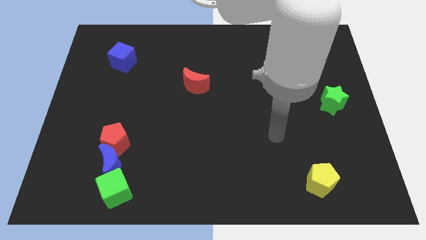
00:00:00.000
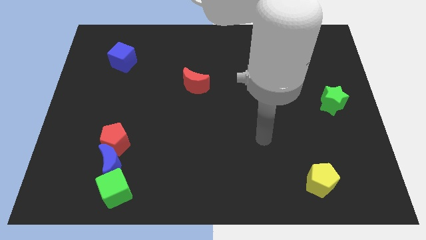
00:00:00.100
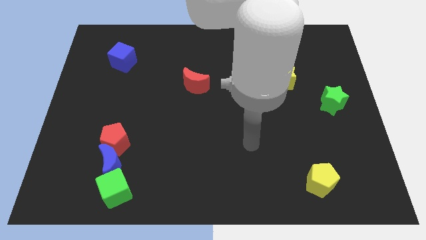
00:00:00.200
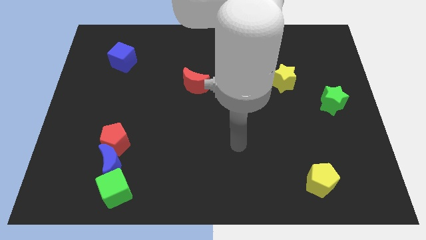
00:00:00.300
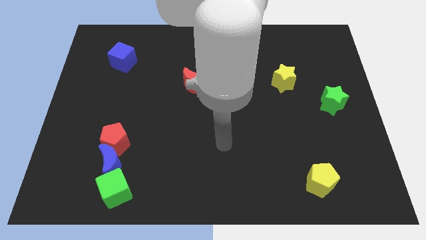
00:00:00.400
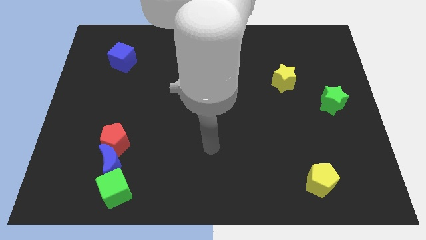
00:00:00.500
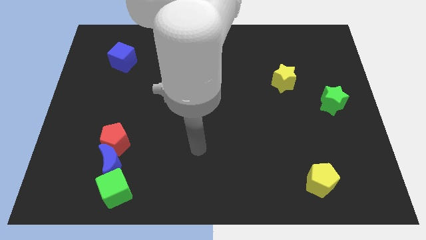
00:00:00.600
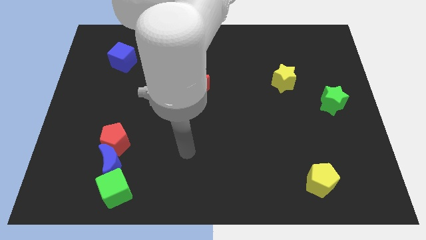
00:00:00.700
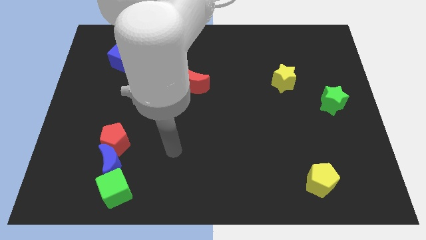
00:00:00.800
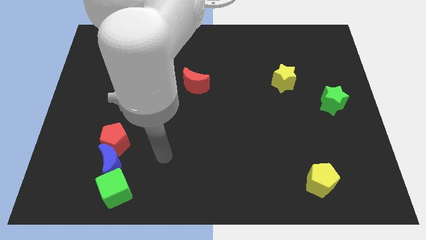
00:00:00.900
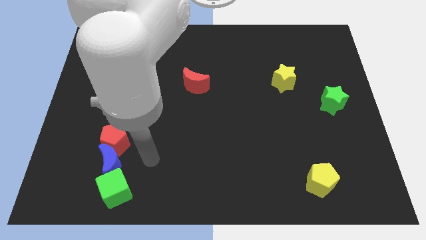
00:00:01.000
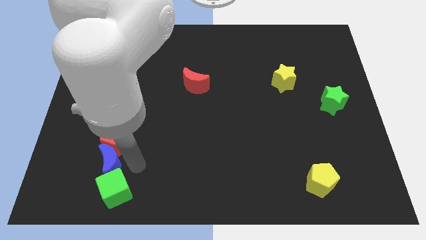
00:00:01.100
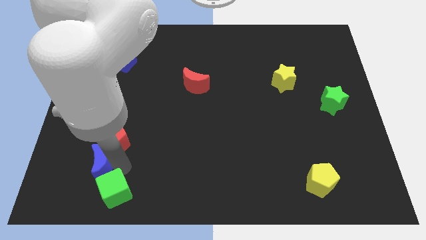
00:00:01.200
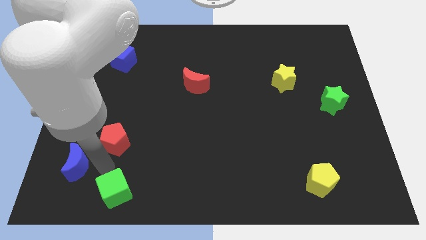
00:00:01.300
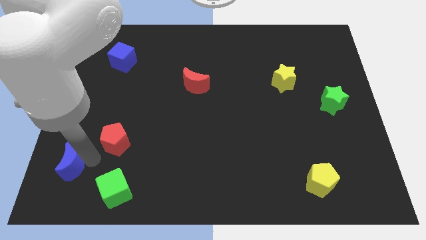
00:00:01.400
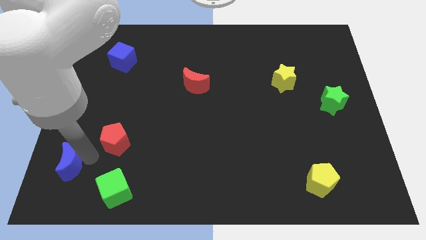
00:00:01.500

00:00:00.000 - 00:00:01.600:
separate the red pentagon from the blue moon

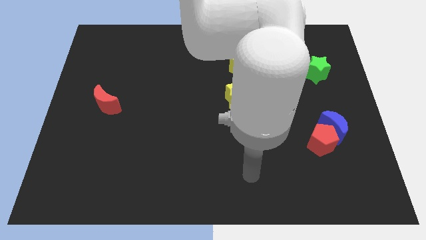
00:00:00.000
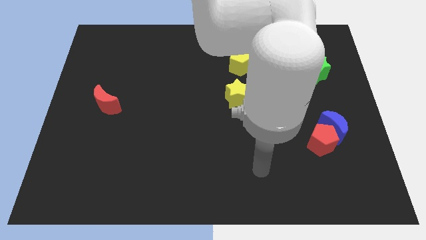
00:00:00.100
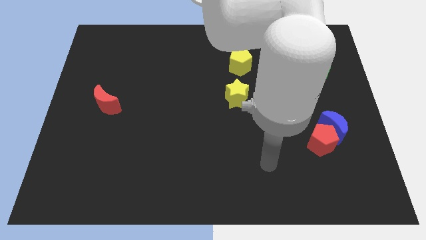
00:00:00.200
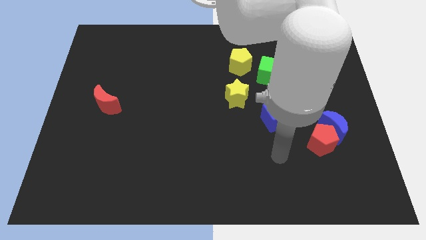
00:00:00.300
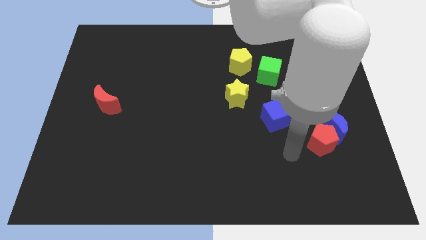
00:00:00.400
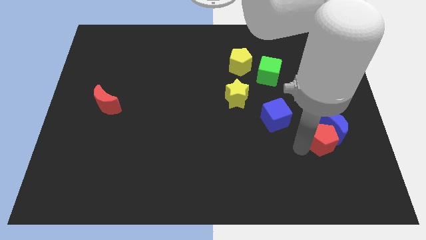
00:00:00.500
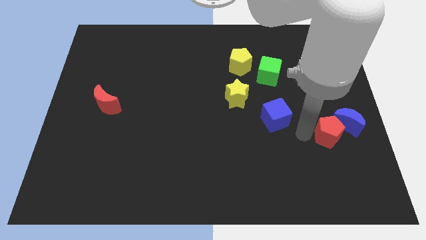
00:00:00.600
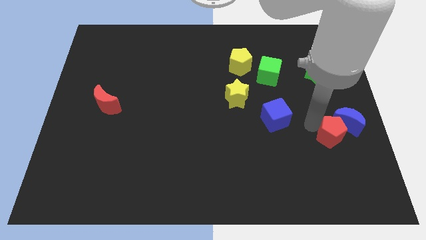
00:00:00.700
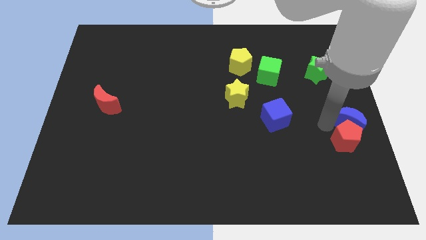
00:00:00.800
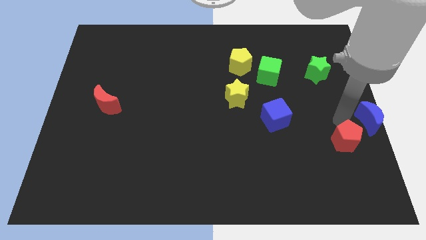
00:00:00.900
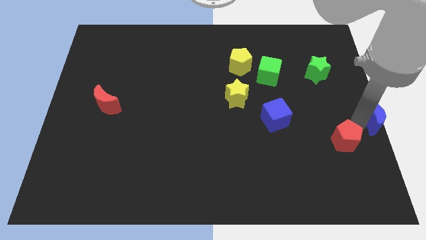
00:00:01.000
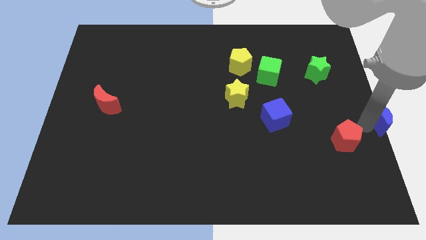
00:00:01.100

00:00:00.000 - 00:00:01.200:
move the red pentagon away from the blue moon

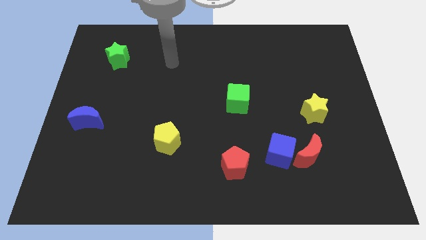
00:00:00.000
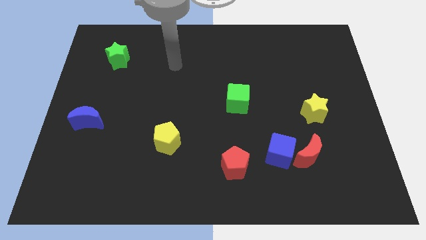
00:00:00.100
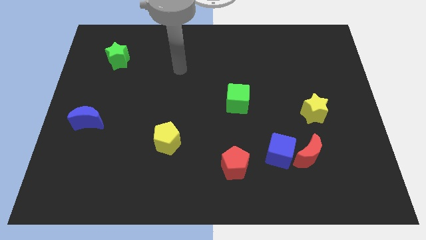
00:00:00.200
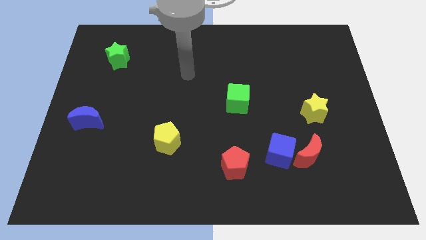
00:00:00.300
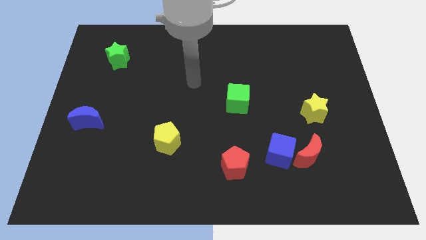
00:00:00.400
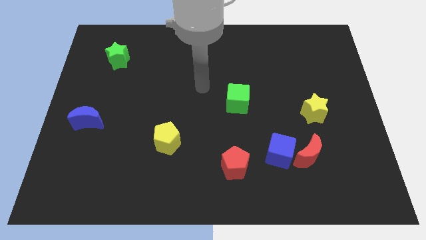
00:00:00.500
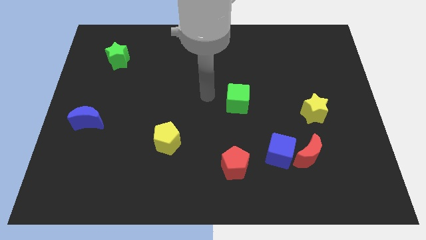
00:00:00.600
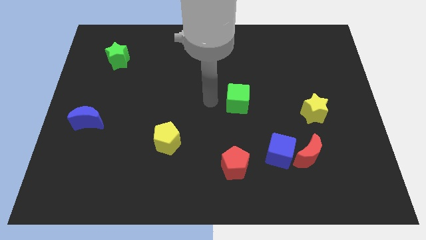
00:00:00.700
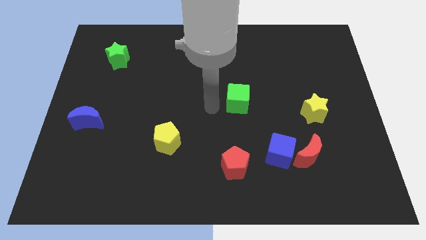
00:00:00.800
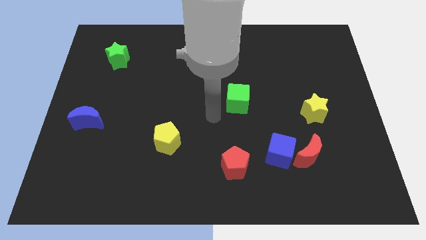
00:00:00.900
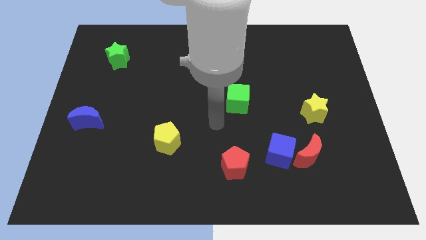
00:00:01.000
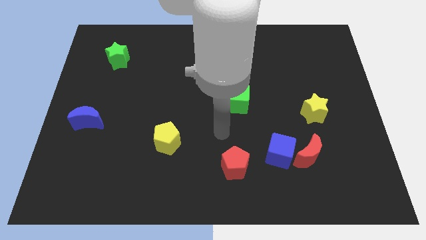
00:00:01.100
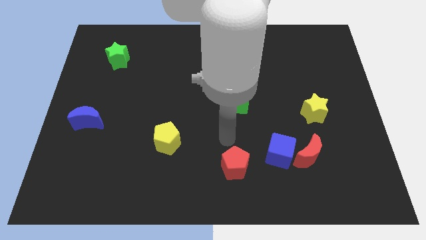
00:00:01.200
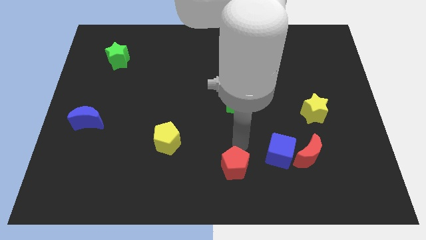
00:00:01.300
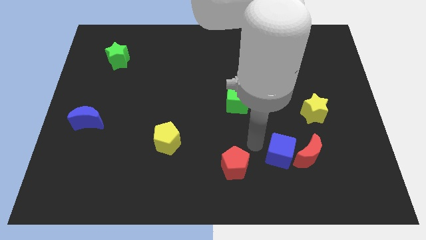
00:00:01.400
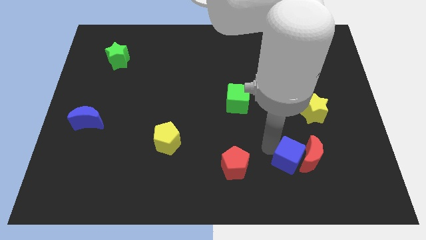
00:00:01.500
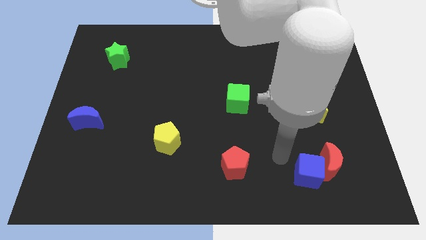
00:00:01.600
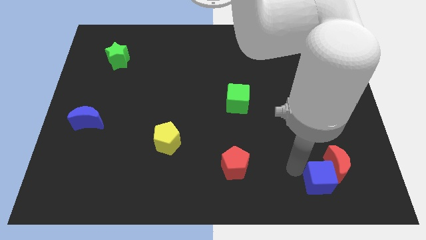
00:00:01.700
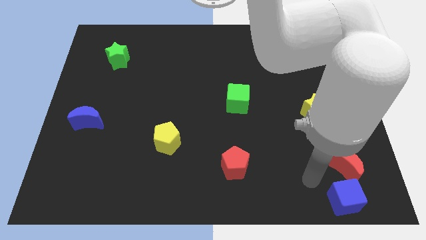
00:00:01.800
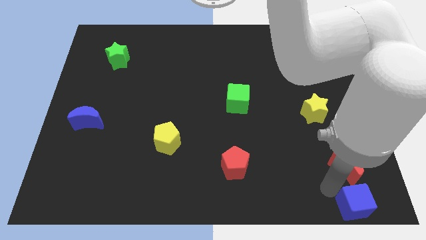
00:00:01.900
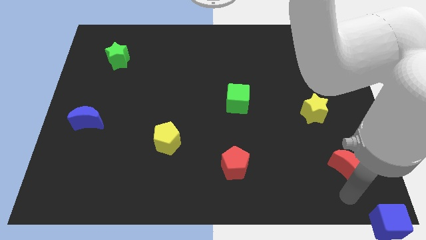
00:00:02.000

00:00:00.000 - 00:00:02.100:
move the red moon away from the blue cube

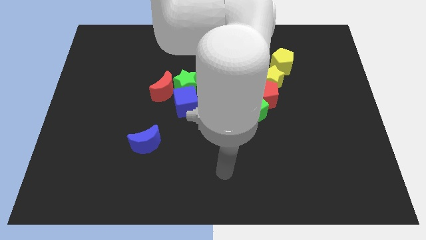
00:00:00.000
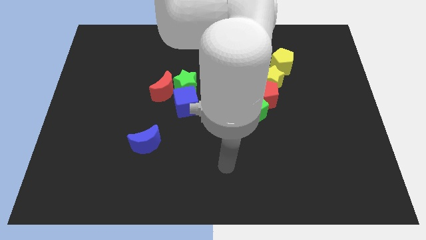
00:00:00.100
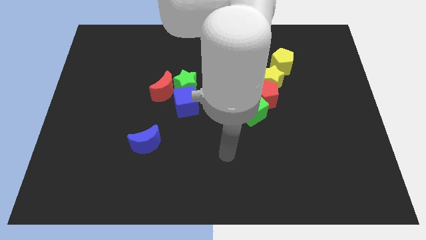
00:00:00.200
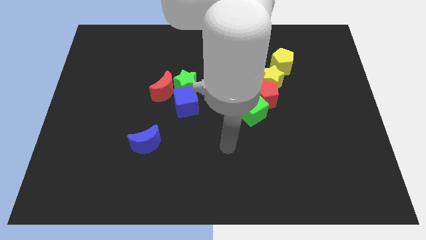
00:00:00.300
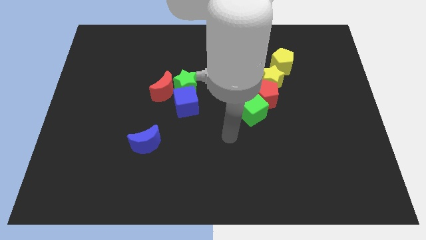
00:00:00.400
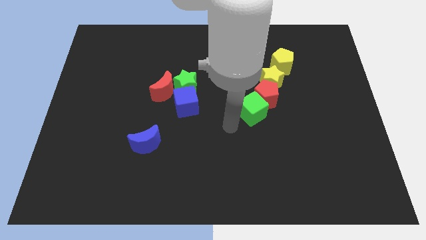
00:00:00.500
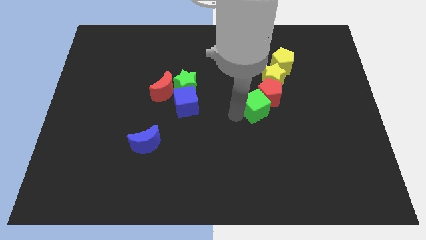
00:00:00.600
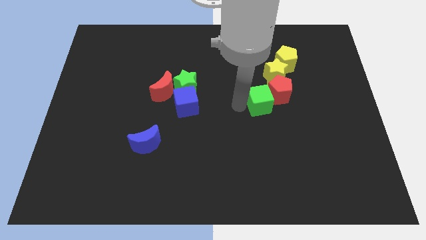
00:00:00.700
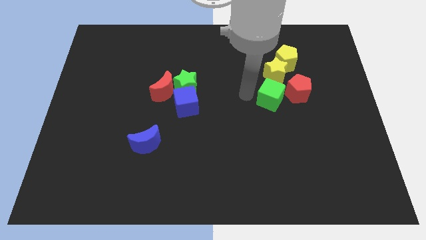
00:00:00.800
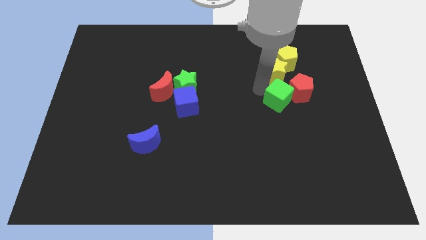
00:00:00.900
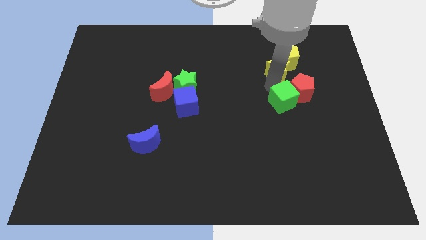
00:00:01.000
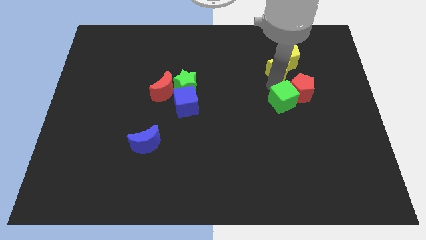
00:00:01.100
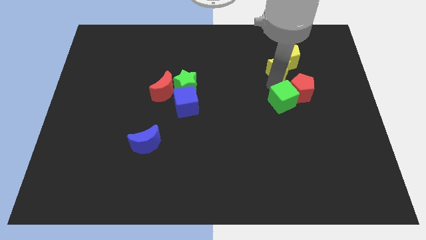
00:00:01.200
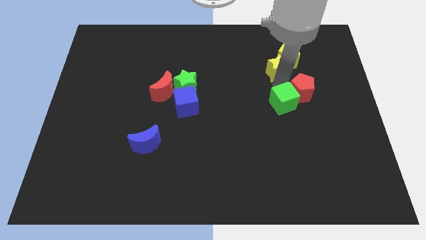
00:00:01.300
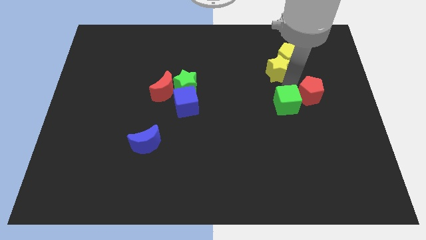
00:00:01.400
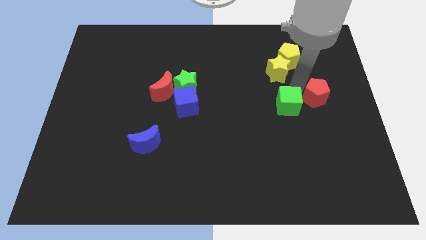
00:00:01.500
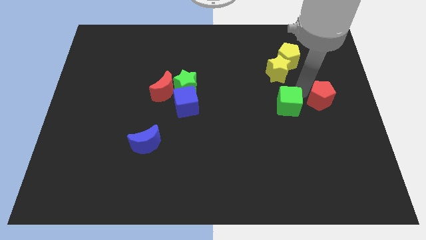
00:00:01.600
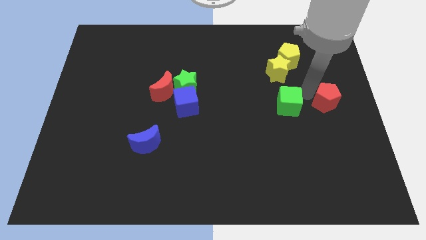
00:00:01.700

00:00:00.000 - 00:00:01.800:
pull the red pentagon apart from the yellow star and green cube

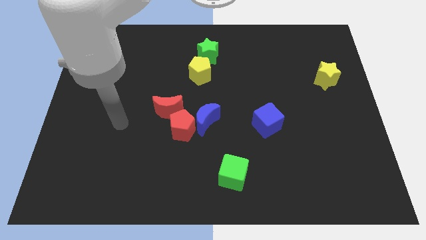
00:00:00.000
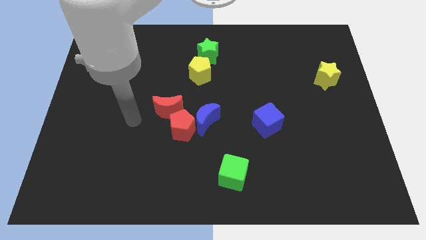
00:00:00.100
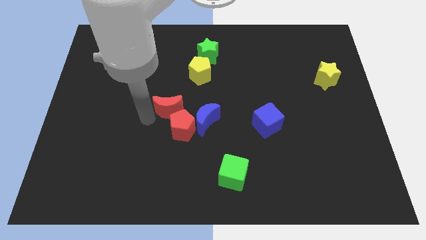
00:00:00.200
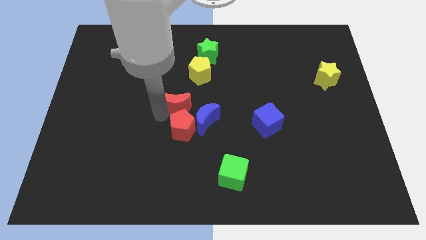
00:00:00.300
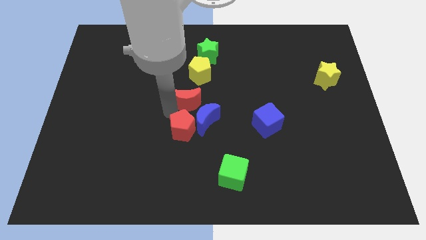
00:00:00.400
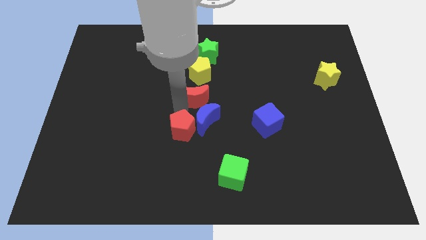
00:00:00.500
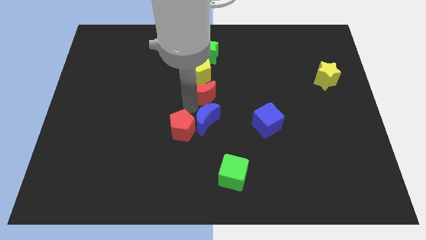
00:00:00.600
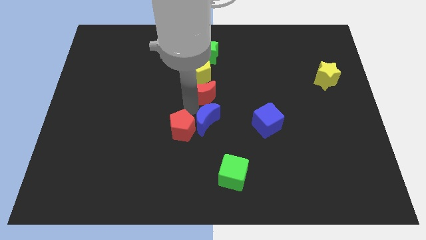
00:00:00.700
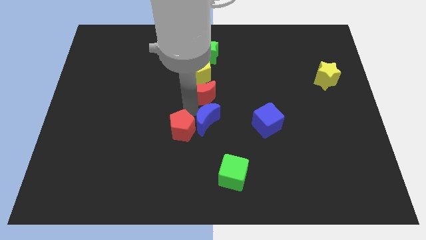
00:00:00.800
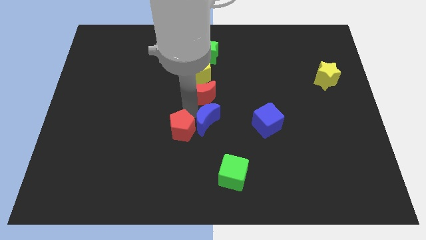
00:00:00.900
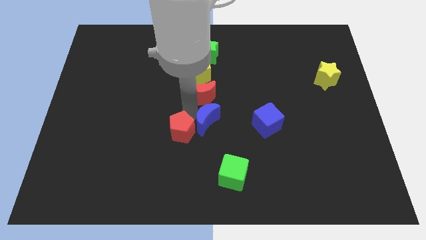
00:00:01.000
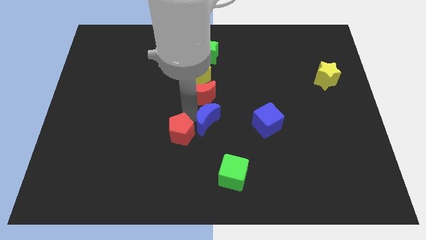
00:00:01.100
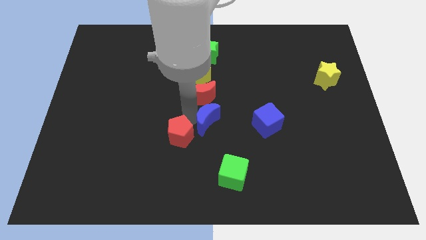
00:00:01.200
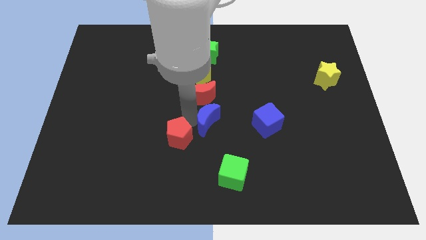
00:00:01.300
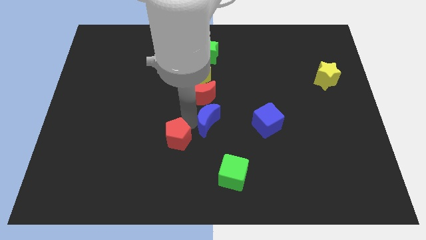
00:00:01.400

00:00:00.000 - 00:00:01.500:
separate the red pentagon from the blue moon and red moon

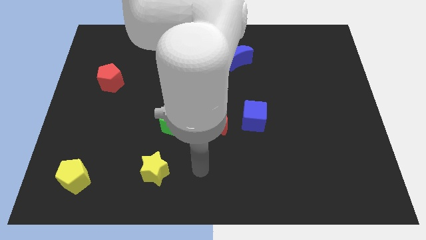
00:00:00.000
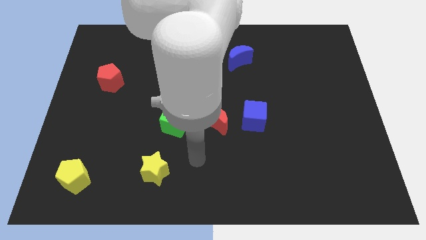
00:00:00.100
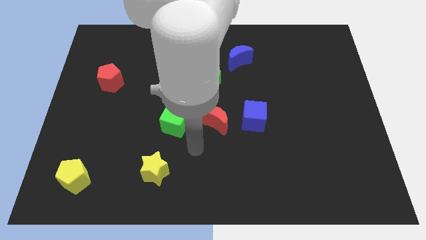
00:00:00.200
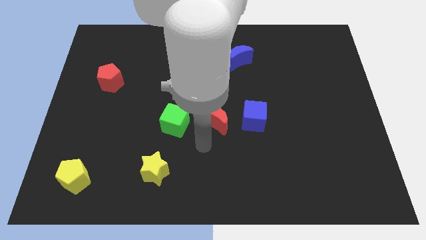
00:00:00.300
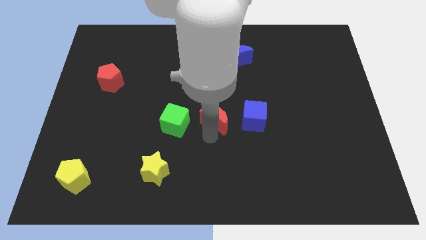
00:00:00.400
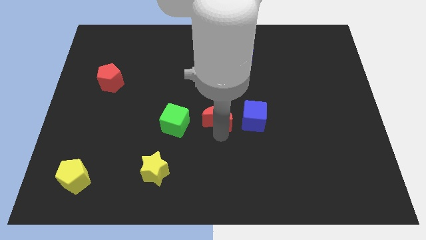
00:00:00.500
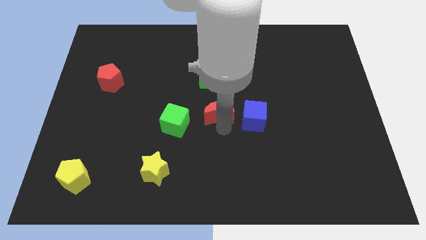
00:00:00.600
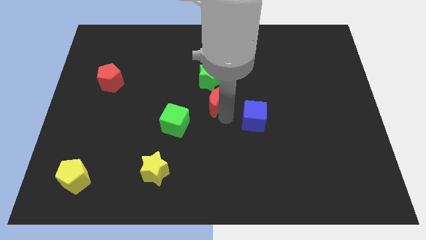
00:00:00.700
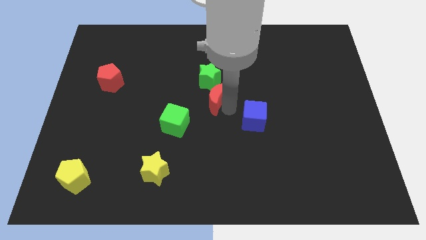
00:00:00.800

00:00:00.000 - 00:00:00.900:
separate the blue cube from the red moon
